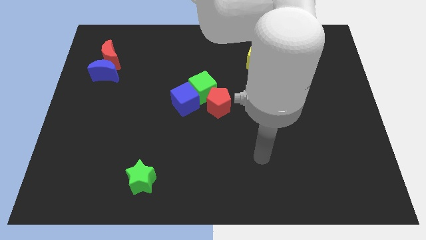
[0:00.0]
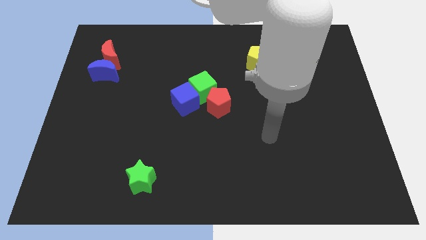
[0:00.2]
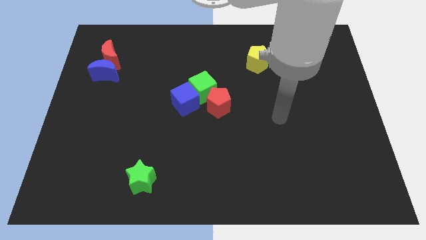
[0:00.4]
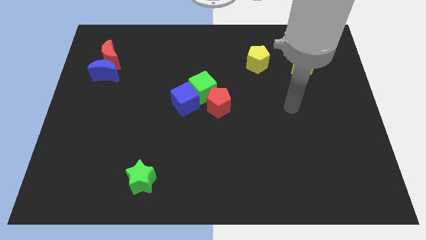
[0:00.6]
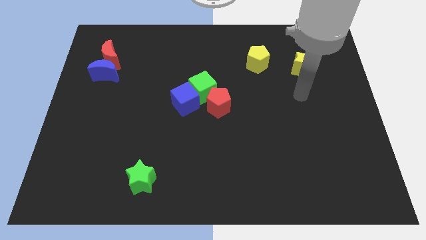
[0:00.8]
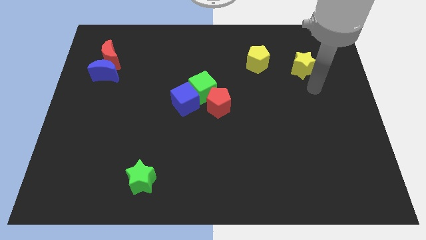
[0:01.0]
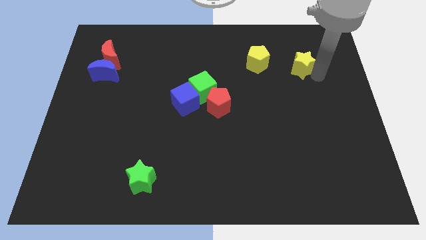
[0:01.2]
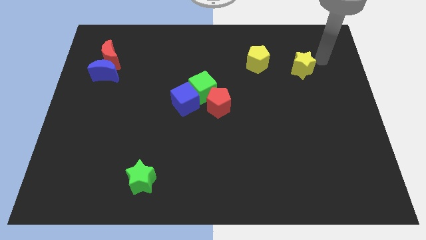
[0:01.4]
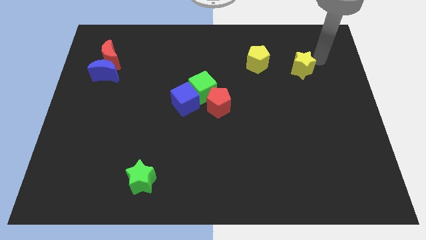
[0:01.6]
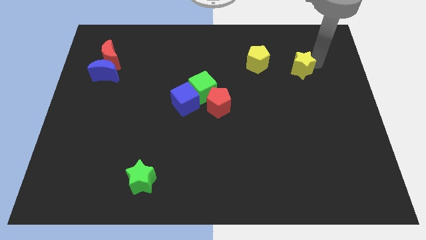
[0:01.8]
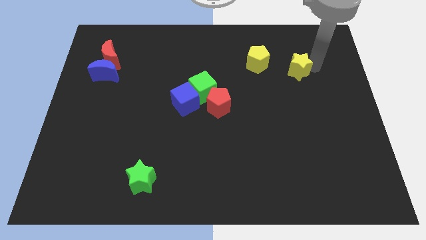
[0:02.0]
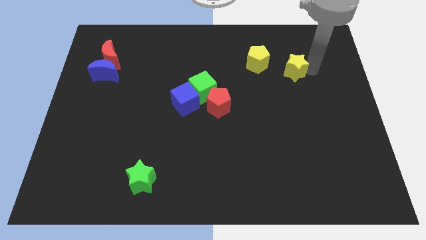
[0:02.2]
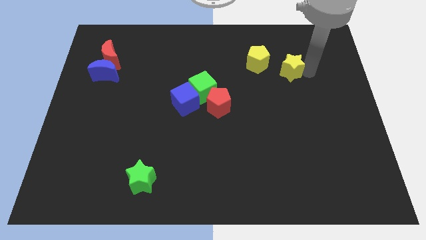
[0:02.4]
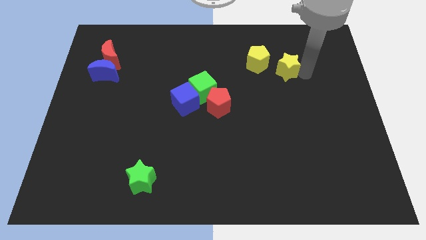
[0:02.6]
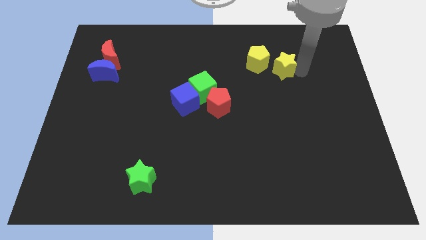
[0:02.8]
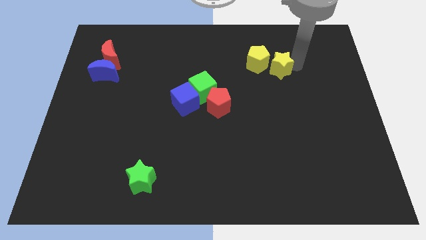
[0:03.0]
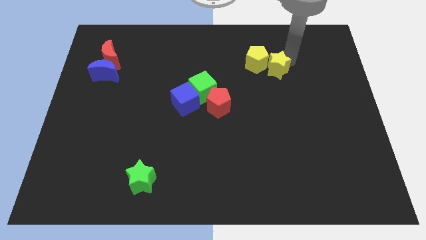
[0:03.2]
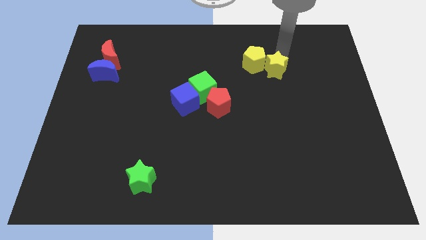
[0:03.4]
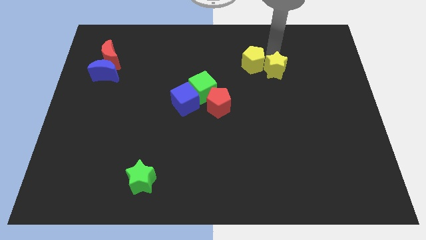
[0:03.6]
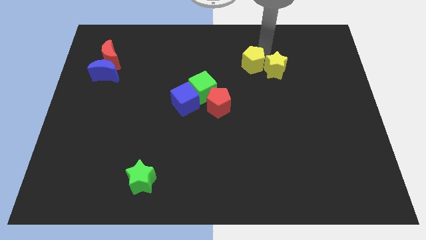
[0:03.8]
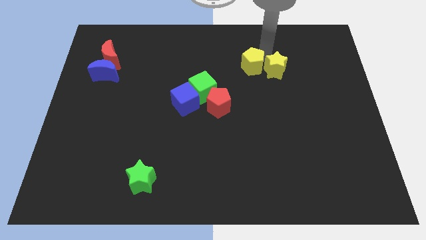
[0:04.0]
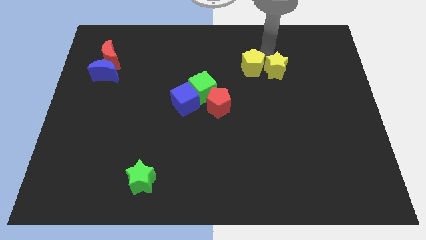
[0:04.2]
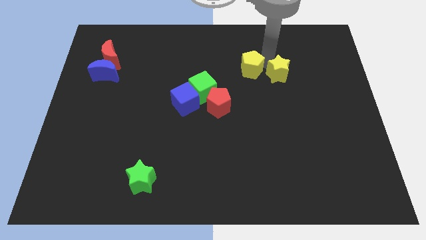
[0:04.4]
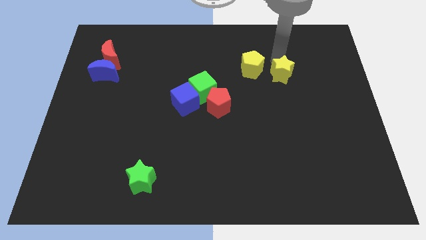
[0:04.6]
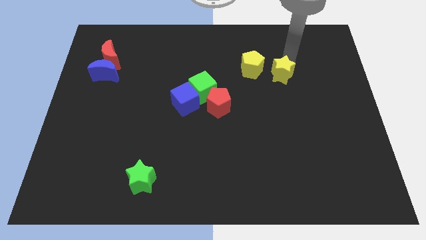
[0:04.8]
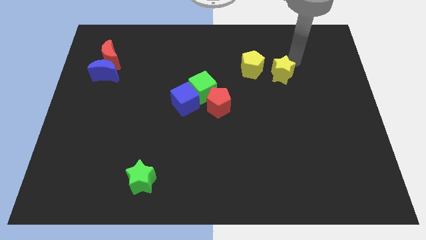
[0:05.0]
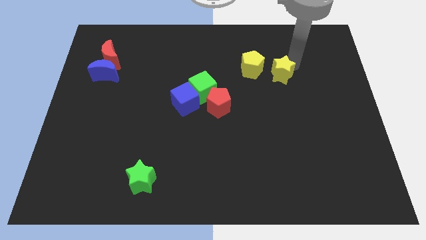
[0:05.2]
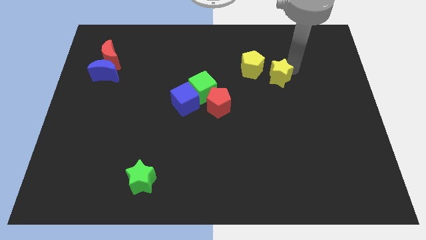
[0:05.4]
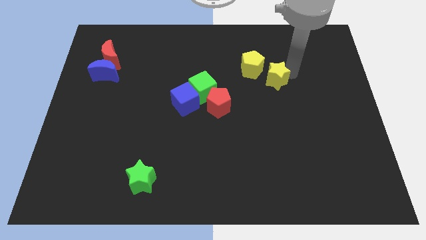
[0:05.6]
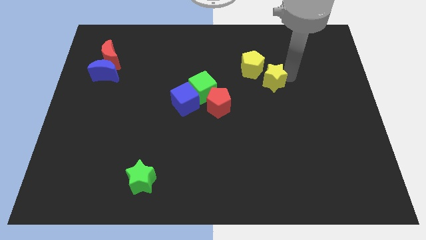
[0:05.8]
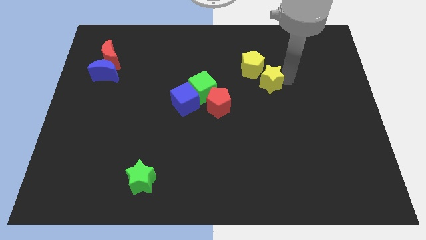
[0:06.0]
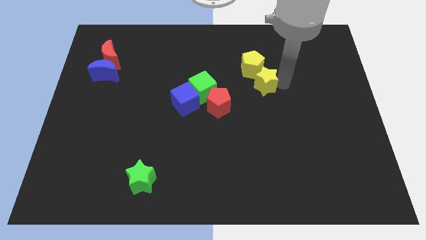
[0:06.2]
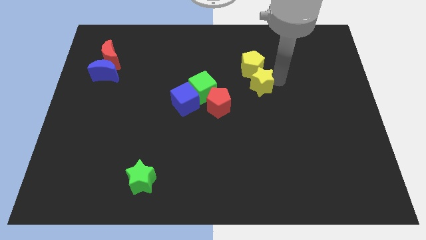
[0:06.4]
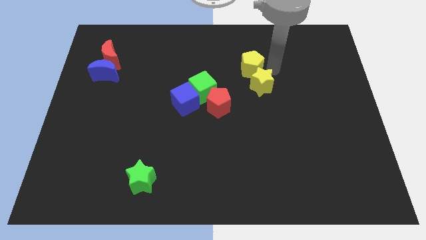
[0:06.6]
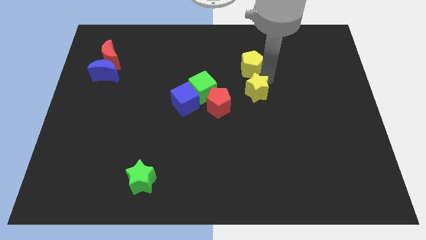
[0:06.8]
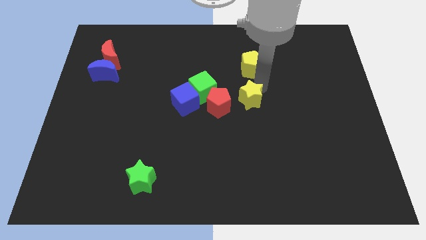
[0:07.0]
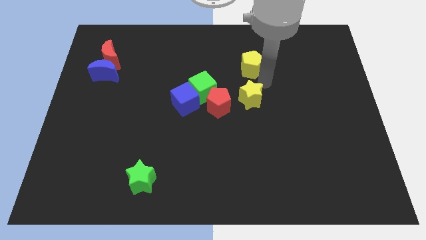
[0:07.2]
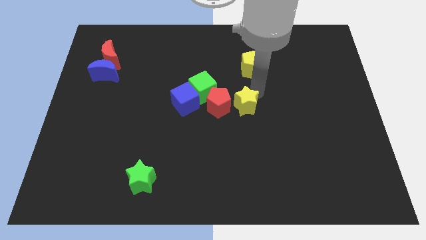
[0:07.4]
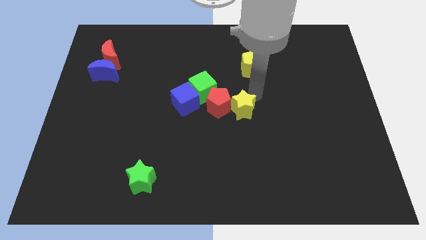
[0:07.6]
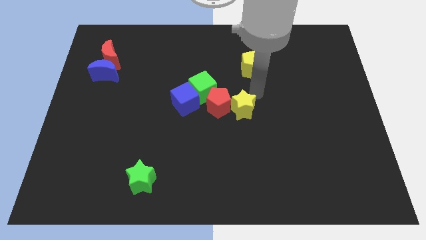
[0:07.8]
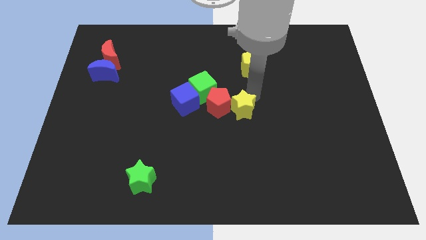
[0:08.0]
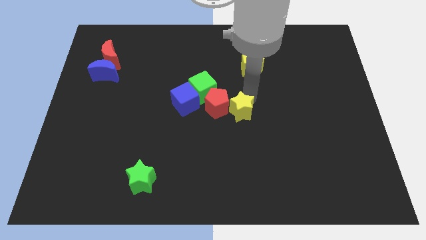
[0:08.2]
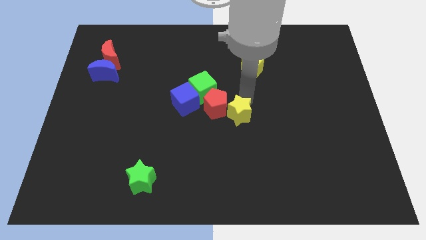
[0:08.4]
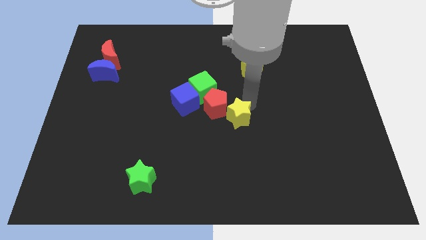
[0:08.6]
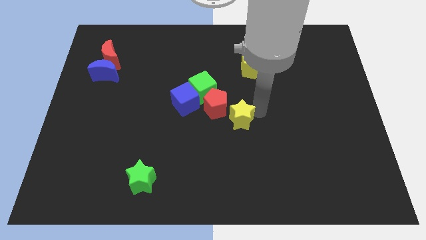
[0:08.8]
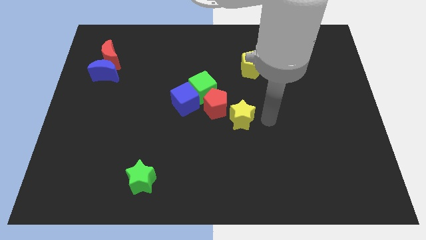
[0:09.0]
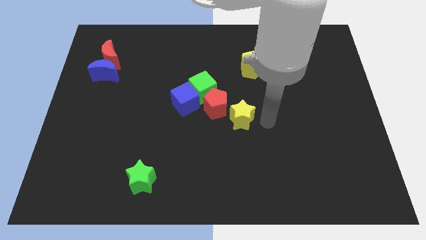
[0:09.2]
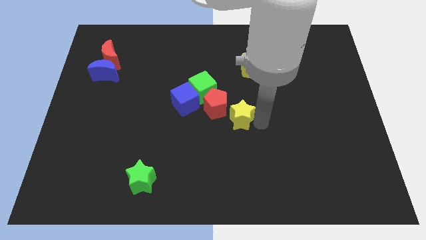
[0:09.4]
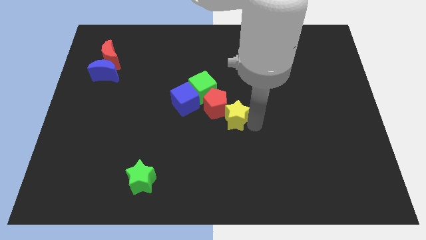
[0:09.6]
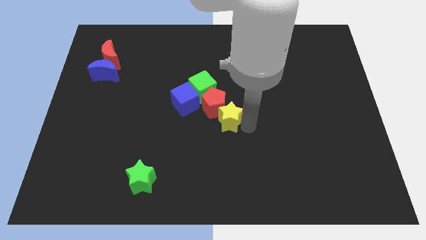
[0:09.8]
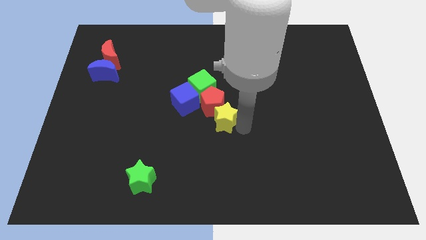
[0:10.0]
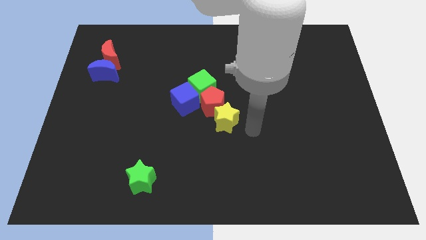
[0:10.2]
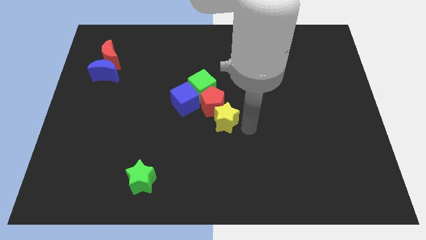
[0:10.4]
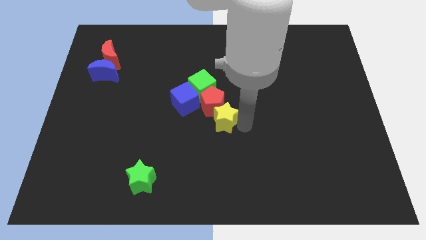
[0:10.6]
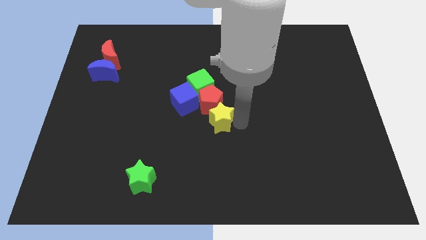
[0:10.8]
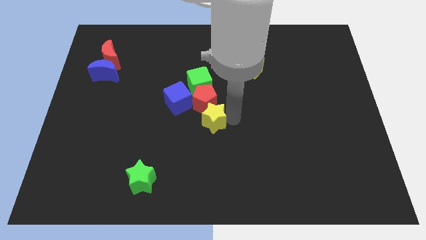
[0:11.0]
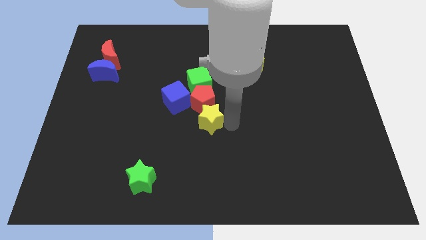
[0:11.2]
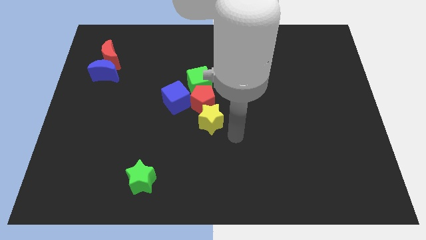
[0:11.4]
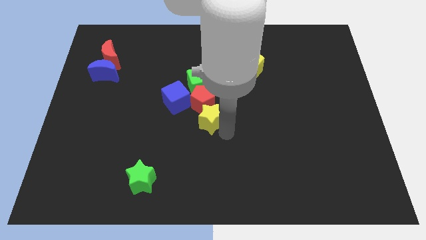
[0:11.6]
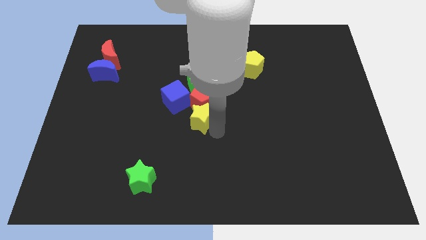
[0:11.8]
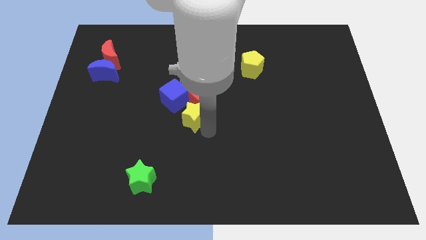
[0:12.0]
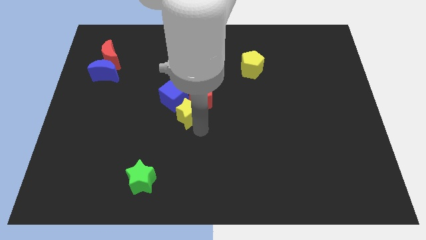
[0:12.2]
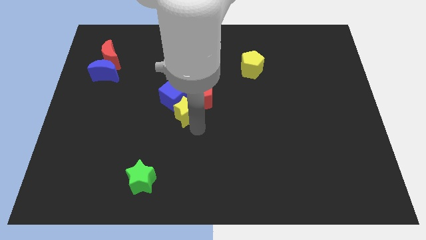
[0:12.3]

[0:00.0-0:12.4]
put the yellow star close to the blue cube

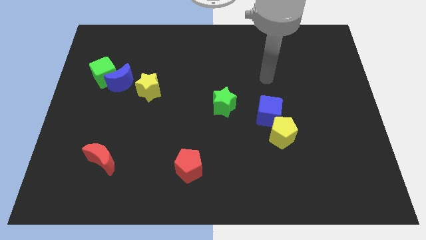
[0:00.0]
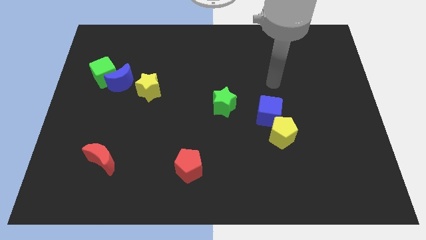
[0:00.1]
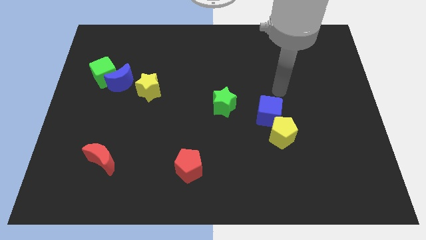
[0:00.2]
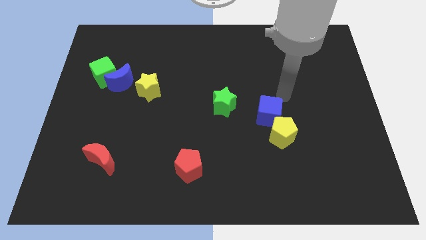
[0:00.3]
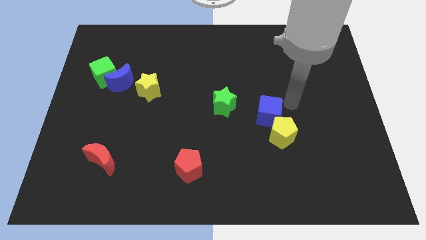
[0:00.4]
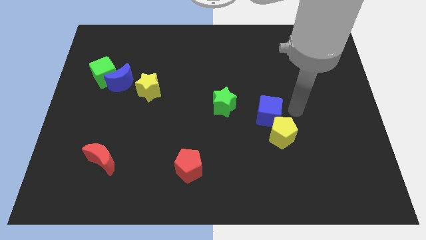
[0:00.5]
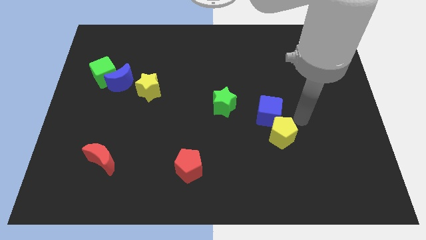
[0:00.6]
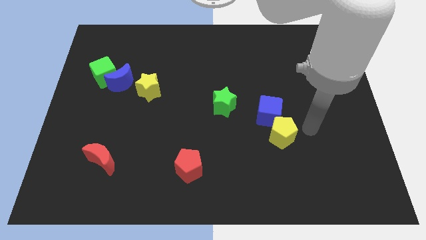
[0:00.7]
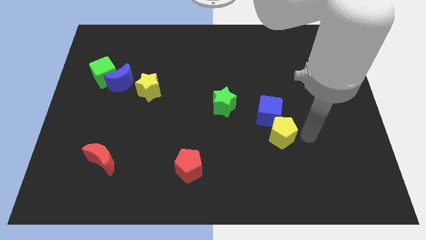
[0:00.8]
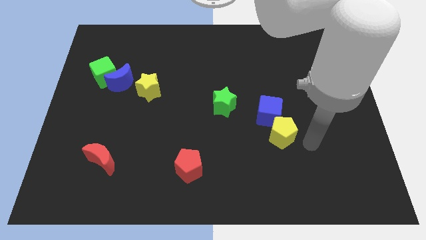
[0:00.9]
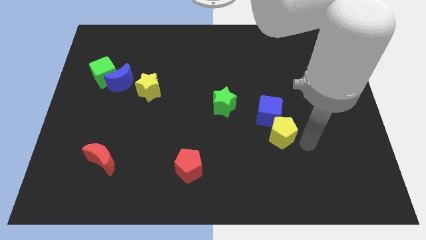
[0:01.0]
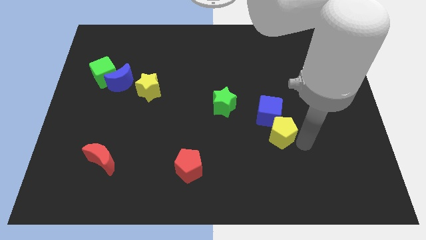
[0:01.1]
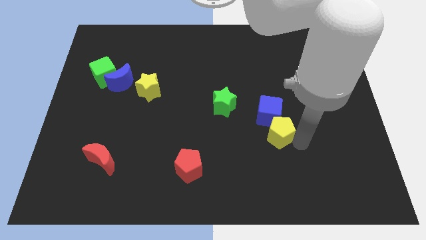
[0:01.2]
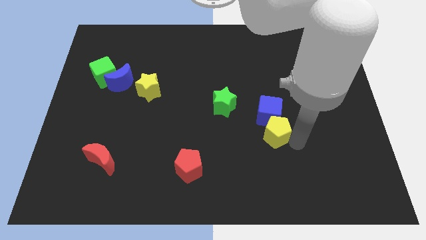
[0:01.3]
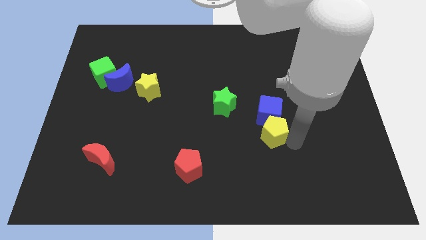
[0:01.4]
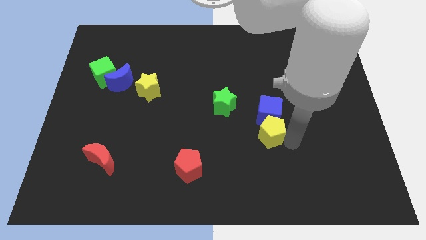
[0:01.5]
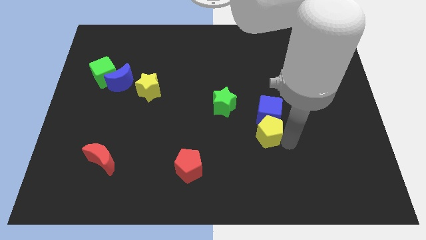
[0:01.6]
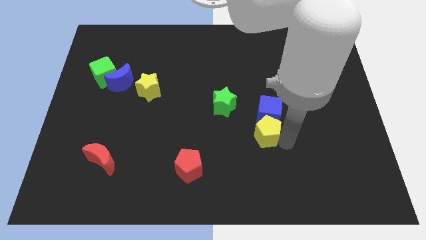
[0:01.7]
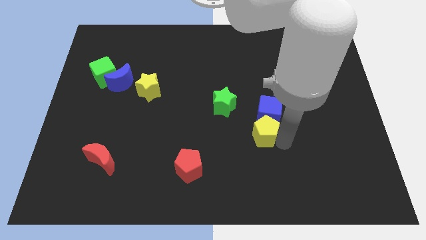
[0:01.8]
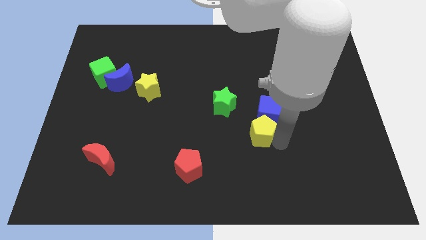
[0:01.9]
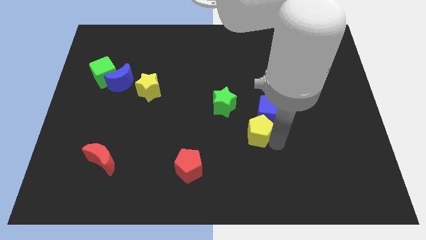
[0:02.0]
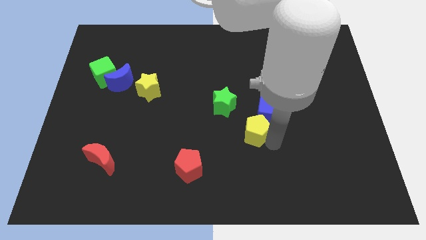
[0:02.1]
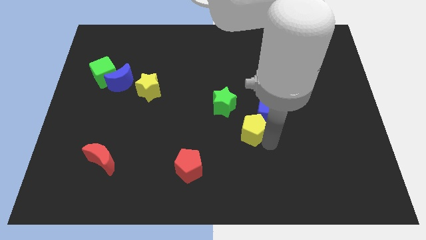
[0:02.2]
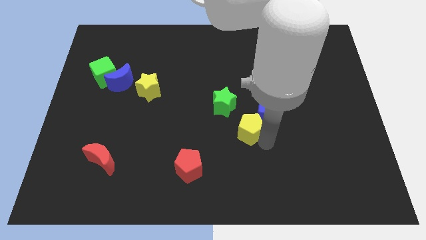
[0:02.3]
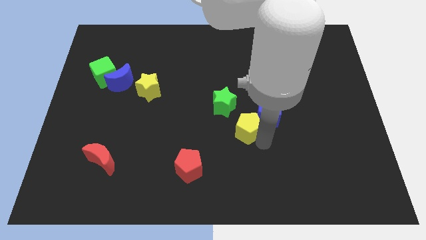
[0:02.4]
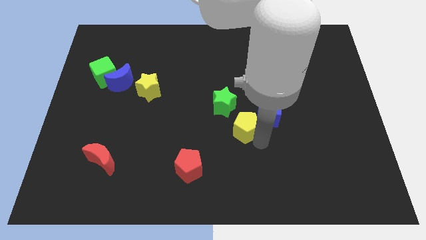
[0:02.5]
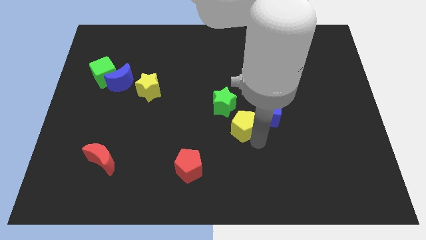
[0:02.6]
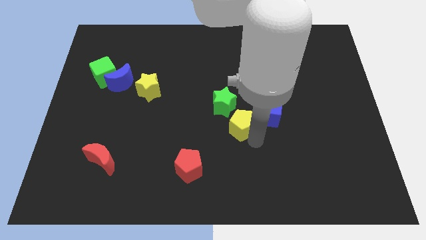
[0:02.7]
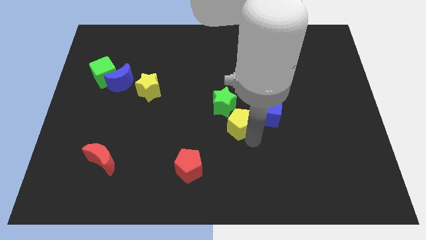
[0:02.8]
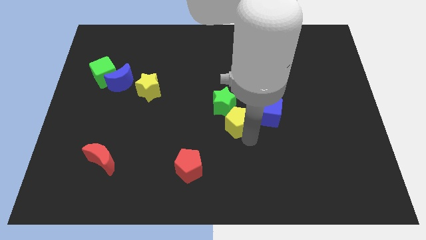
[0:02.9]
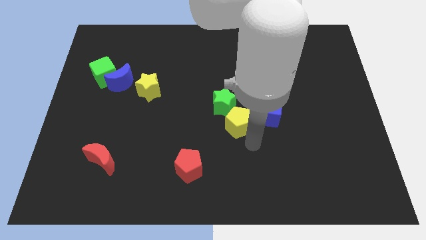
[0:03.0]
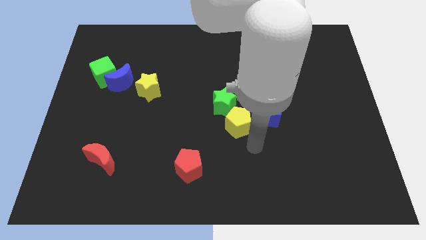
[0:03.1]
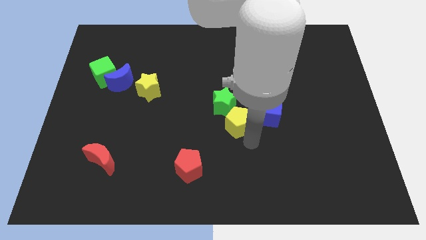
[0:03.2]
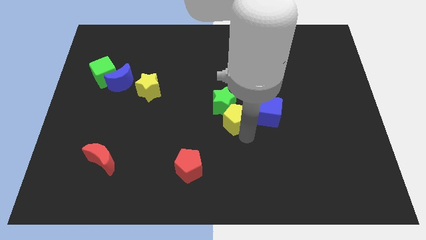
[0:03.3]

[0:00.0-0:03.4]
push the yellow pentagon to the green star
